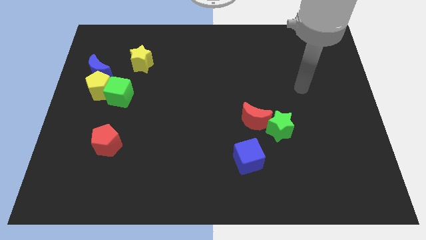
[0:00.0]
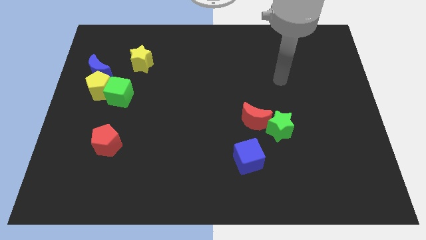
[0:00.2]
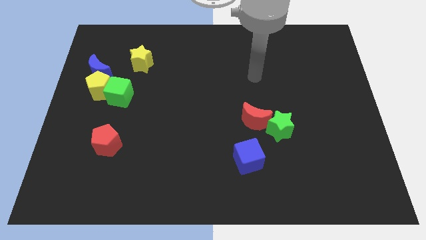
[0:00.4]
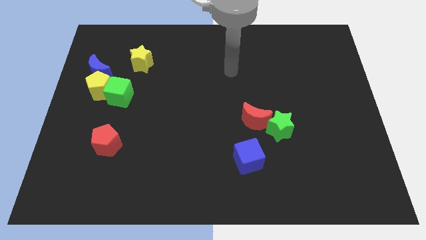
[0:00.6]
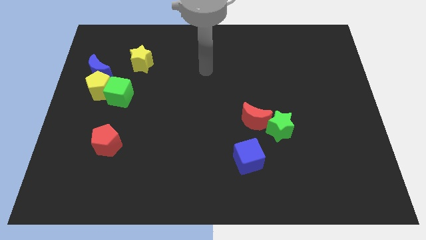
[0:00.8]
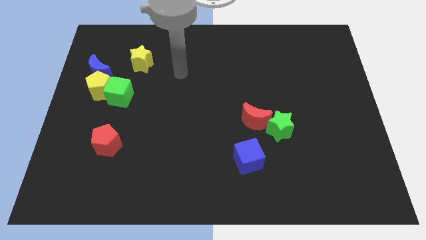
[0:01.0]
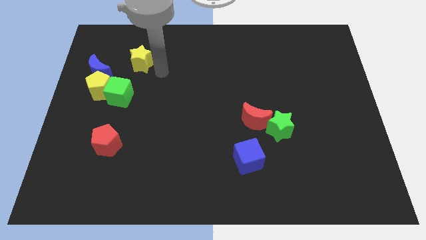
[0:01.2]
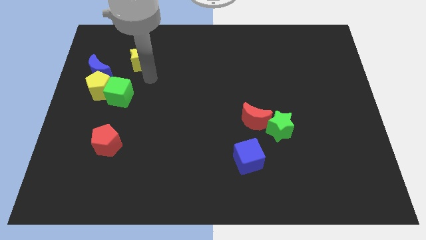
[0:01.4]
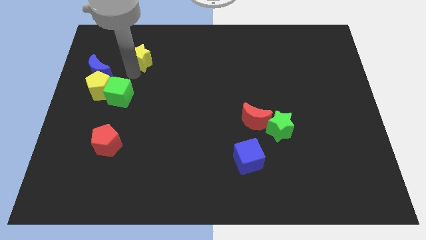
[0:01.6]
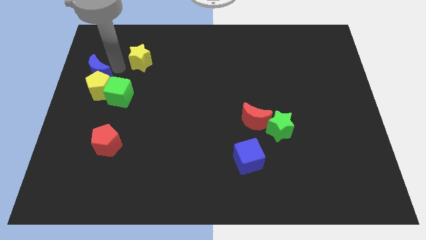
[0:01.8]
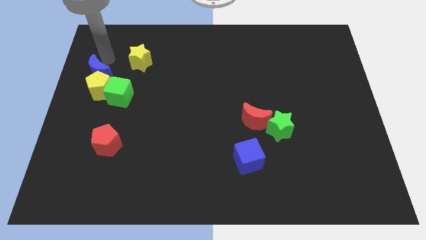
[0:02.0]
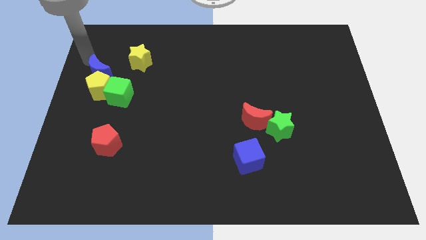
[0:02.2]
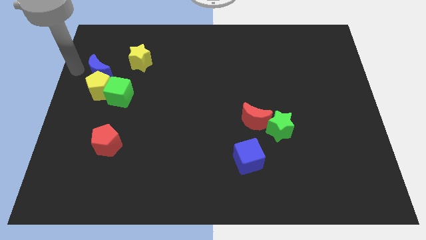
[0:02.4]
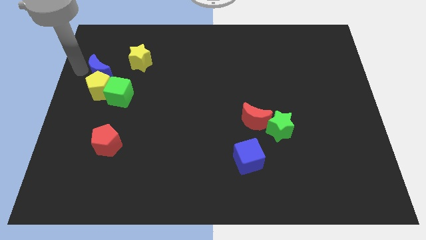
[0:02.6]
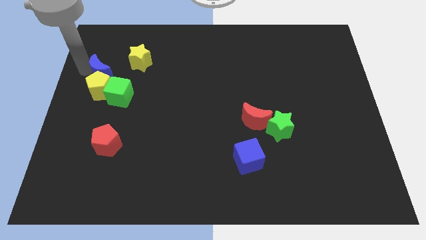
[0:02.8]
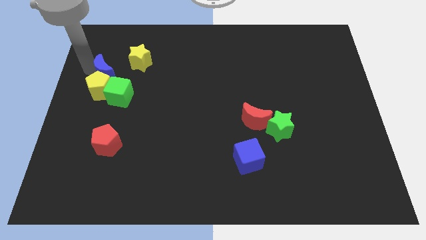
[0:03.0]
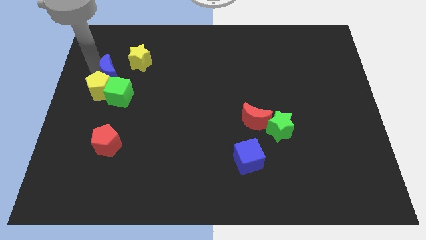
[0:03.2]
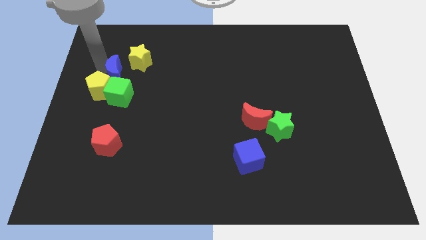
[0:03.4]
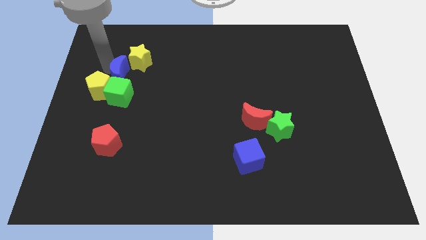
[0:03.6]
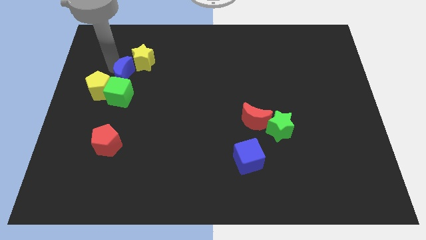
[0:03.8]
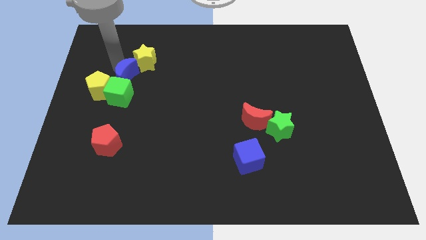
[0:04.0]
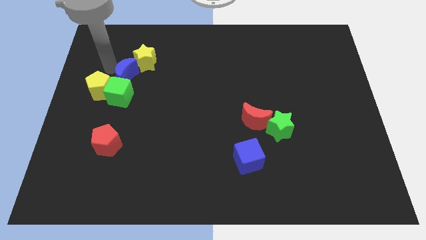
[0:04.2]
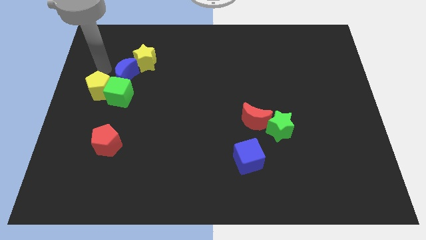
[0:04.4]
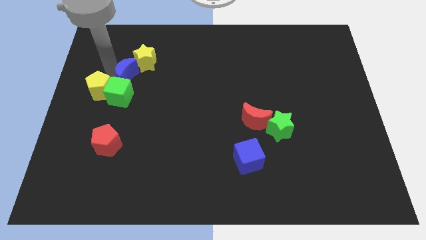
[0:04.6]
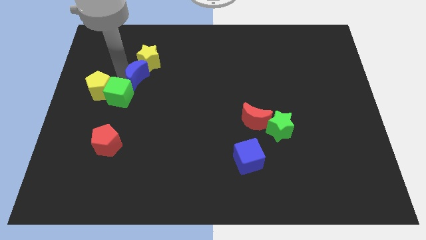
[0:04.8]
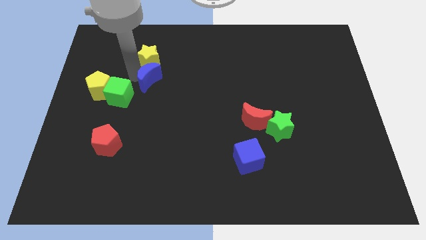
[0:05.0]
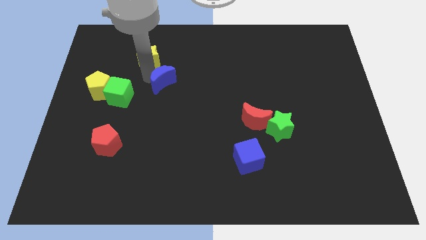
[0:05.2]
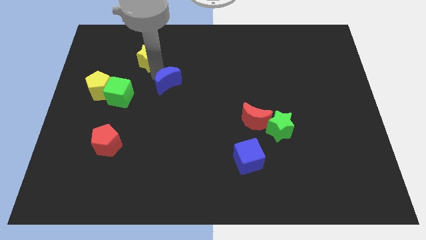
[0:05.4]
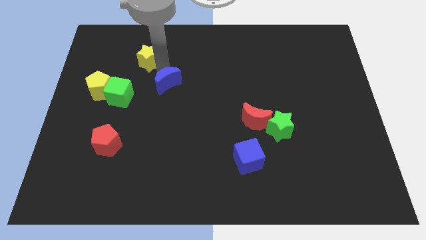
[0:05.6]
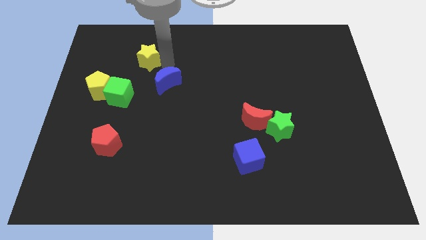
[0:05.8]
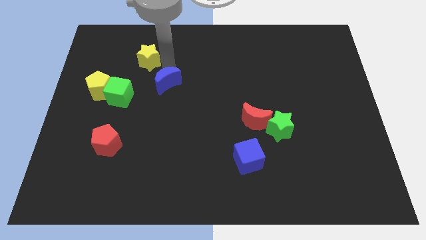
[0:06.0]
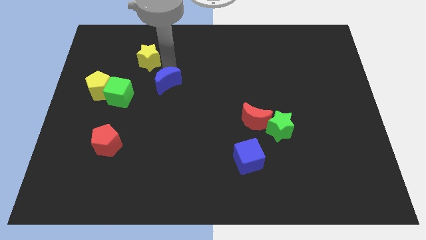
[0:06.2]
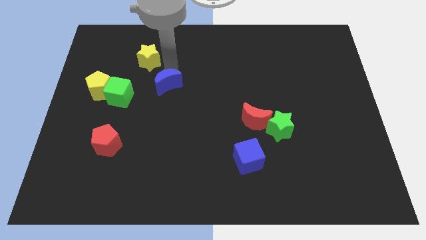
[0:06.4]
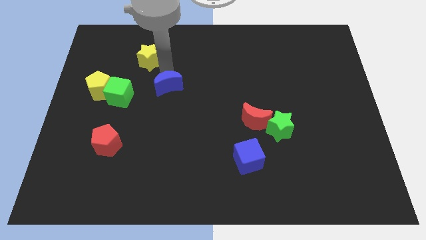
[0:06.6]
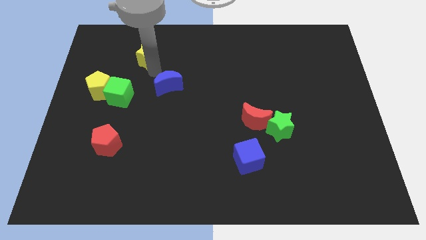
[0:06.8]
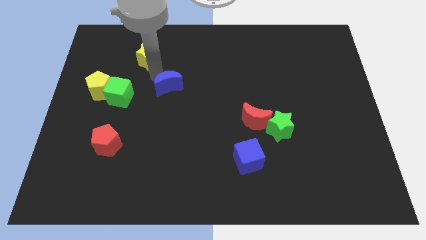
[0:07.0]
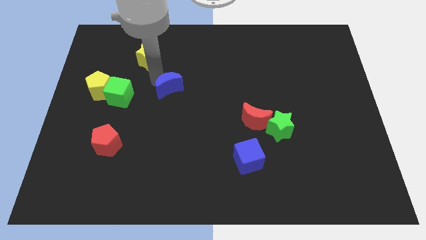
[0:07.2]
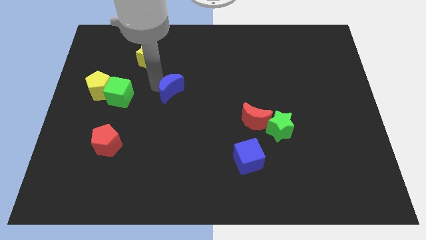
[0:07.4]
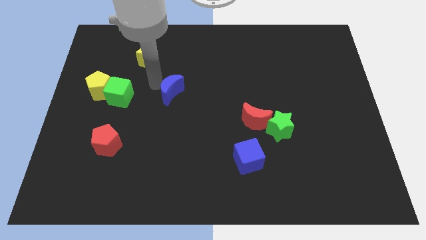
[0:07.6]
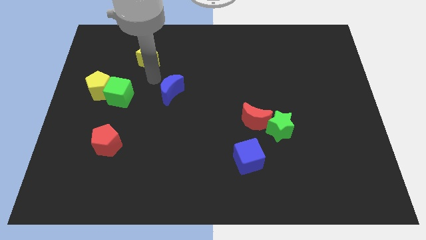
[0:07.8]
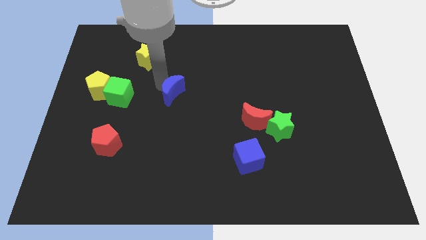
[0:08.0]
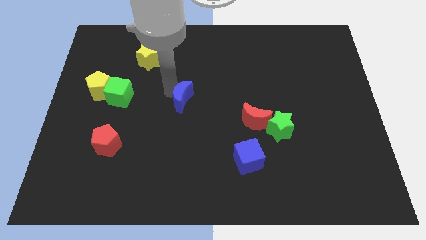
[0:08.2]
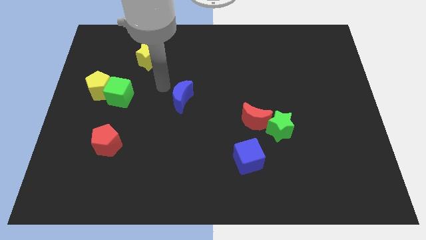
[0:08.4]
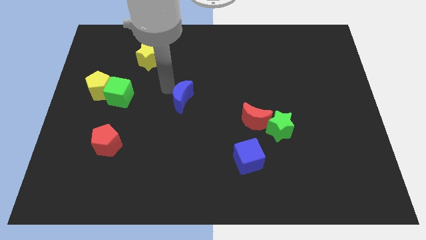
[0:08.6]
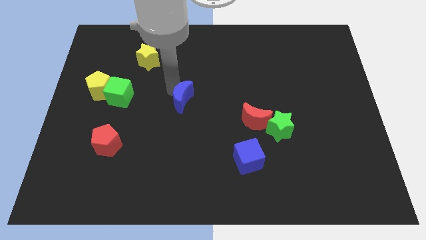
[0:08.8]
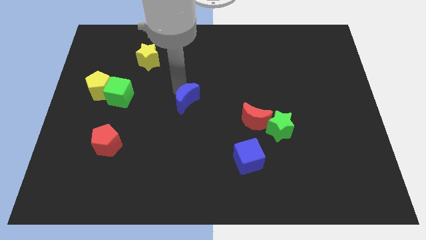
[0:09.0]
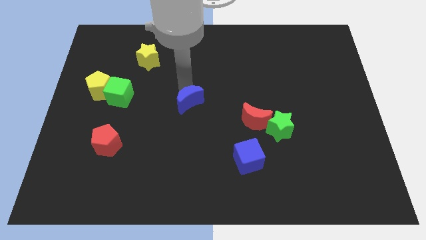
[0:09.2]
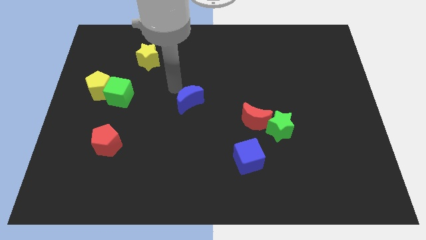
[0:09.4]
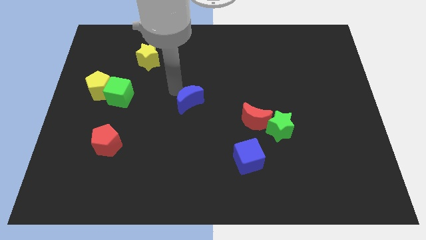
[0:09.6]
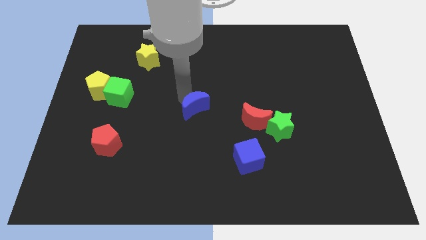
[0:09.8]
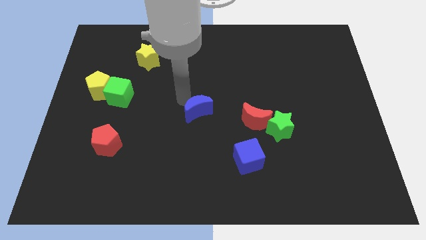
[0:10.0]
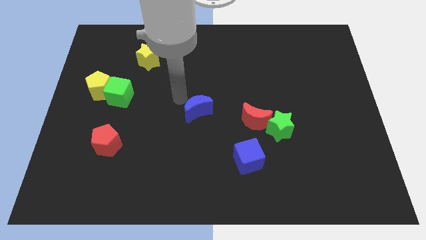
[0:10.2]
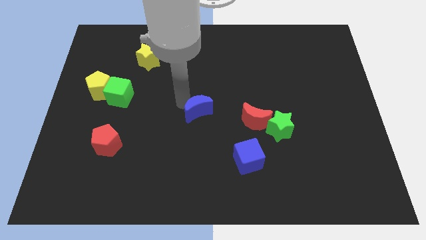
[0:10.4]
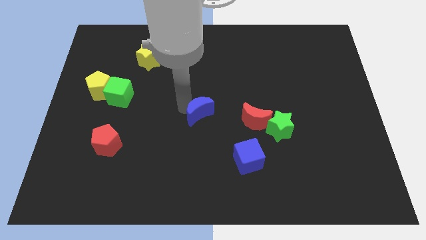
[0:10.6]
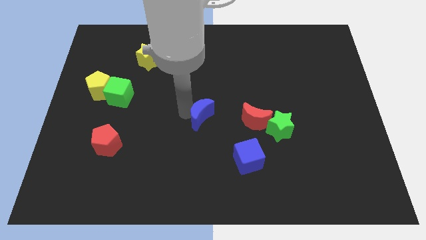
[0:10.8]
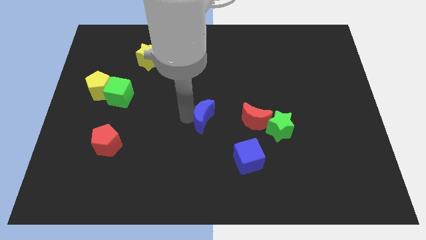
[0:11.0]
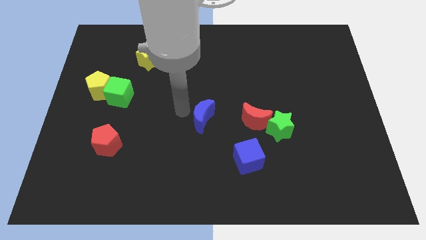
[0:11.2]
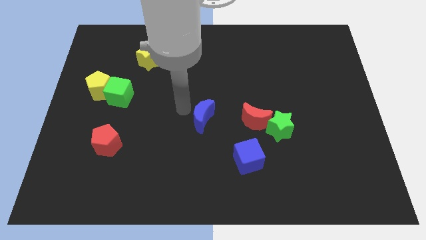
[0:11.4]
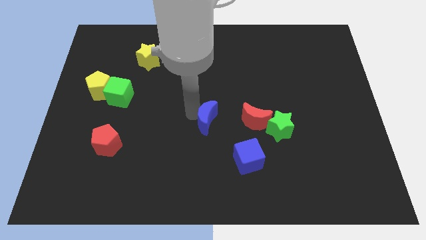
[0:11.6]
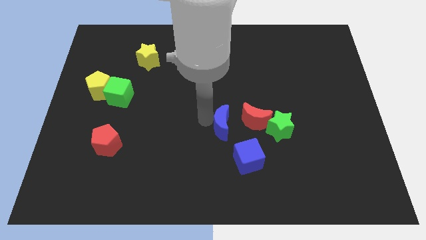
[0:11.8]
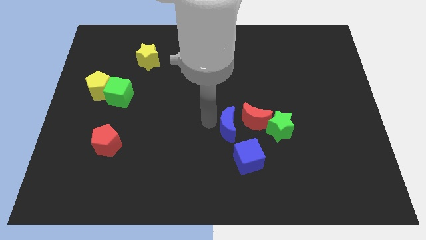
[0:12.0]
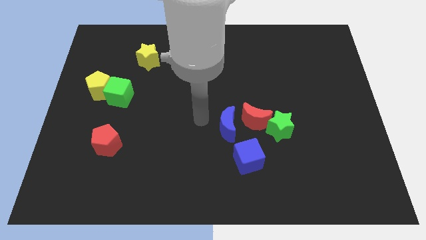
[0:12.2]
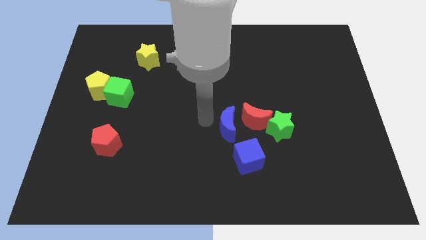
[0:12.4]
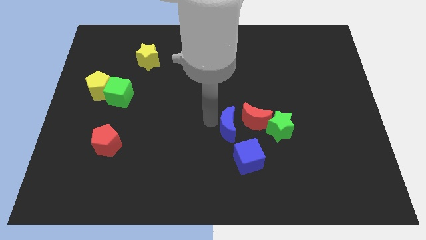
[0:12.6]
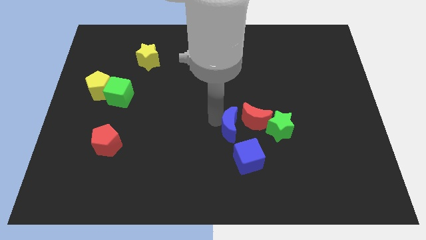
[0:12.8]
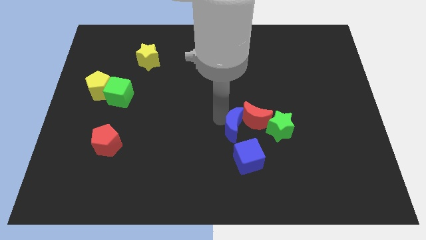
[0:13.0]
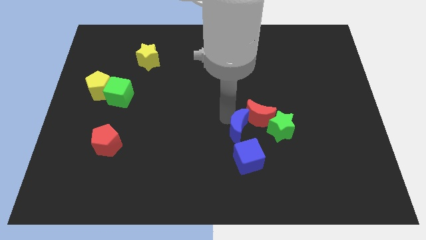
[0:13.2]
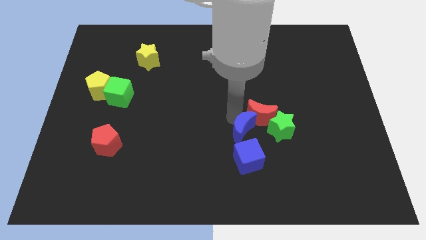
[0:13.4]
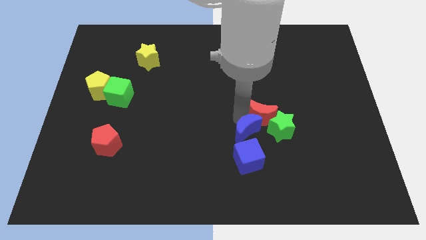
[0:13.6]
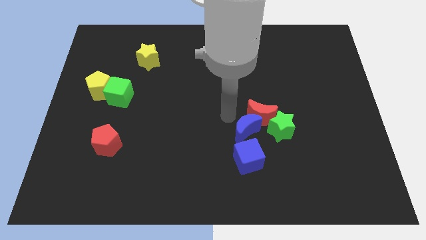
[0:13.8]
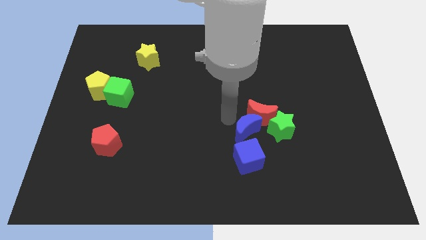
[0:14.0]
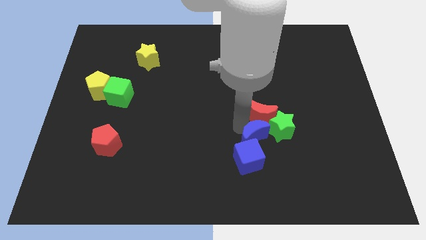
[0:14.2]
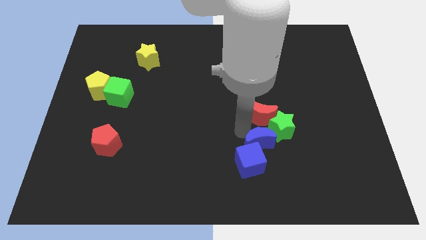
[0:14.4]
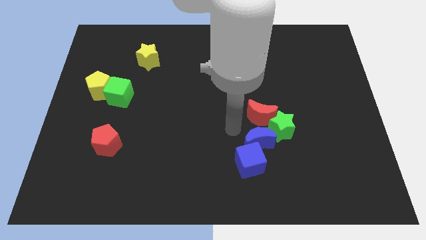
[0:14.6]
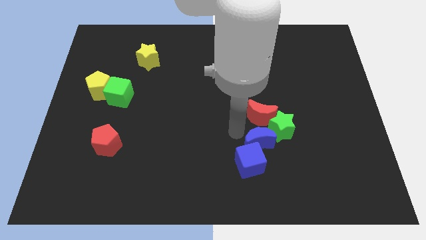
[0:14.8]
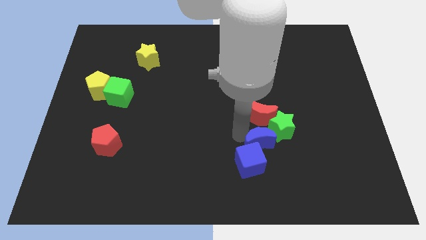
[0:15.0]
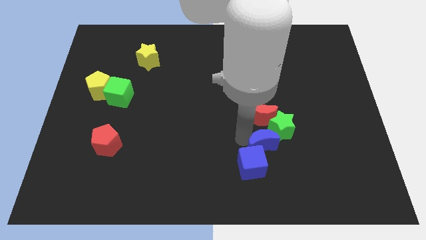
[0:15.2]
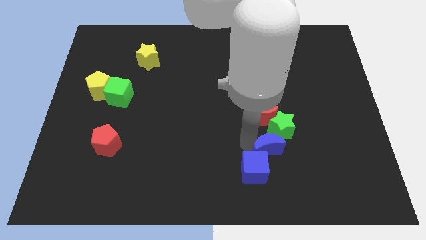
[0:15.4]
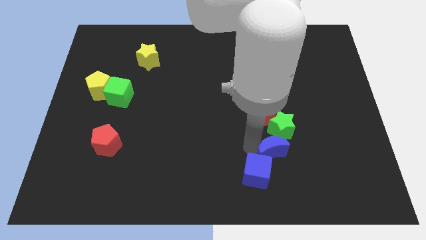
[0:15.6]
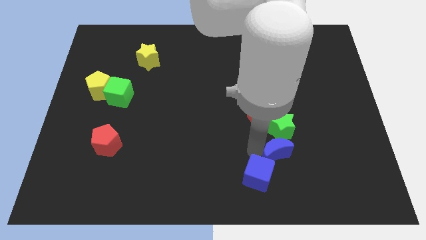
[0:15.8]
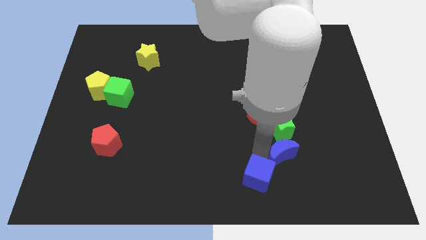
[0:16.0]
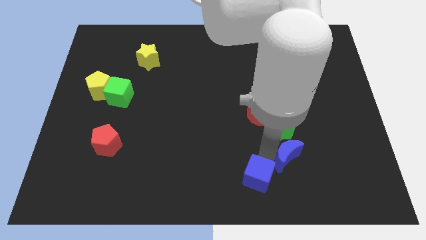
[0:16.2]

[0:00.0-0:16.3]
move the blue moon to the bottom right side of the green star
